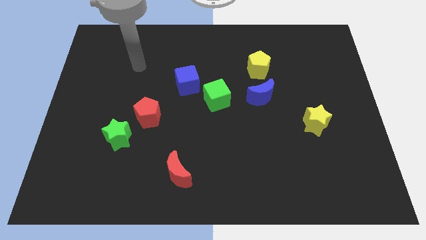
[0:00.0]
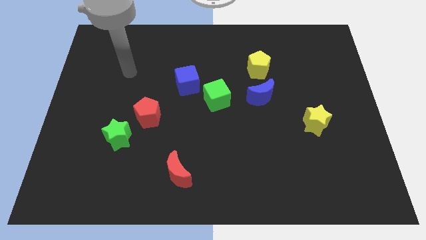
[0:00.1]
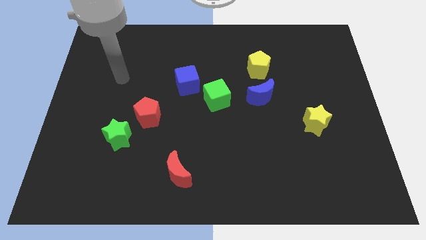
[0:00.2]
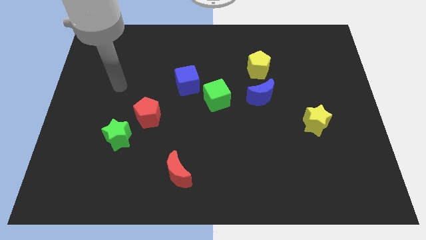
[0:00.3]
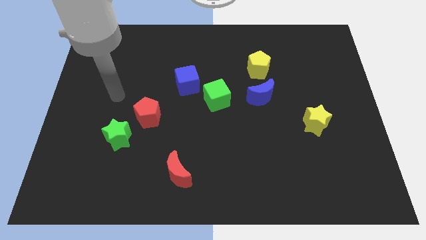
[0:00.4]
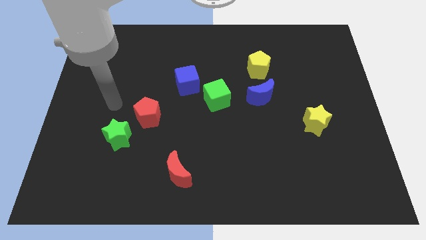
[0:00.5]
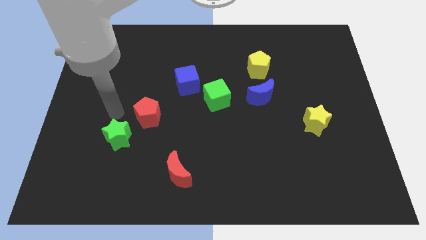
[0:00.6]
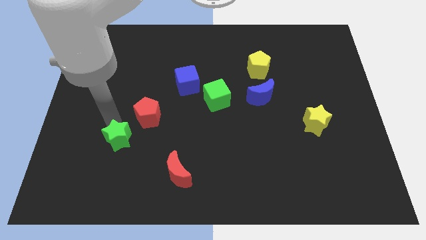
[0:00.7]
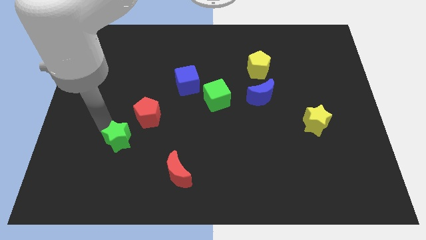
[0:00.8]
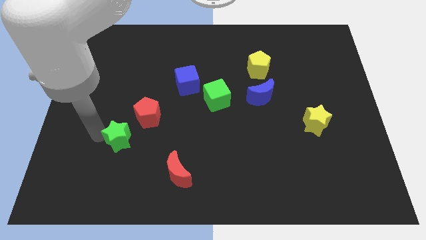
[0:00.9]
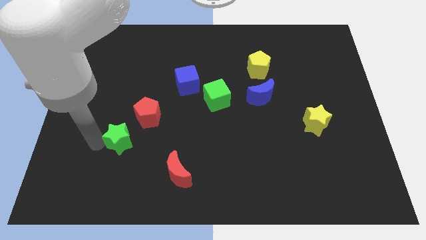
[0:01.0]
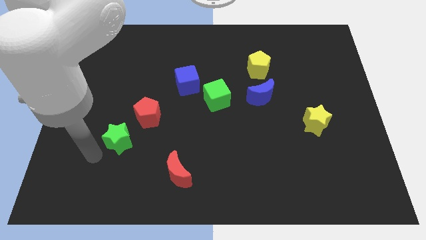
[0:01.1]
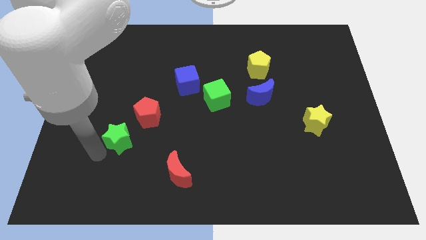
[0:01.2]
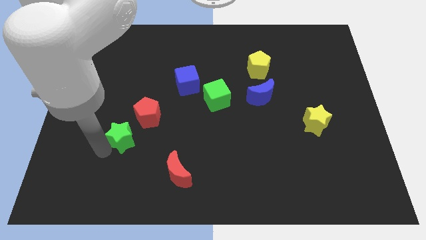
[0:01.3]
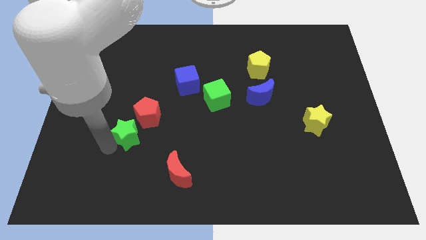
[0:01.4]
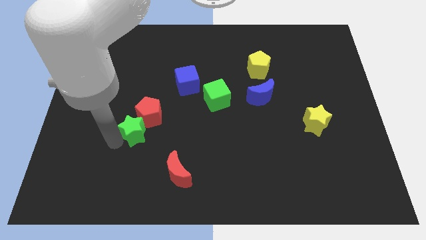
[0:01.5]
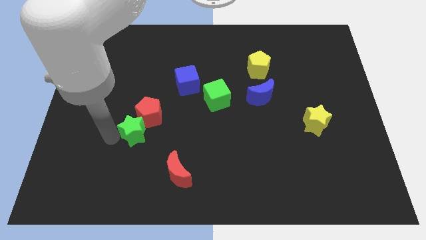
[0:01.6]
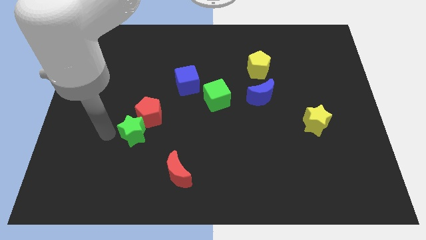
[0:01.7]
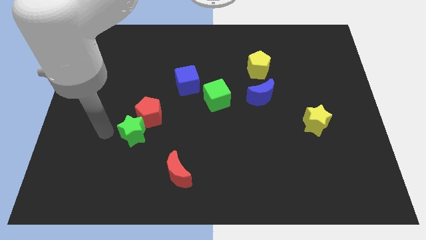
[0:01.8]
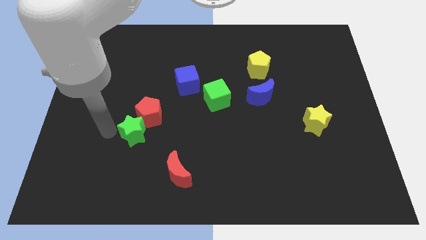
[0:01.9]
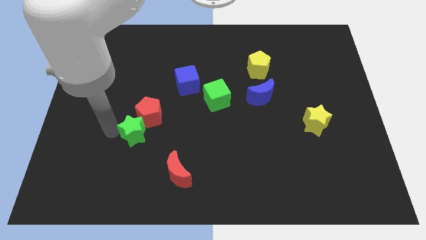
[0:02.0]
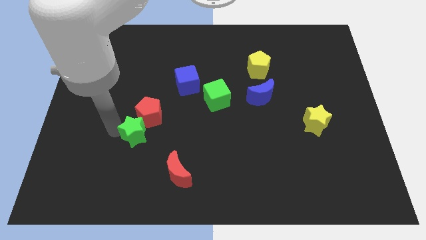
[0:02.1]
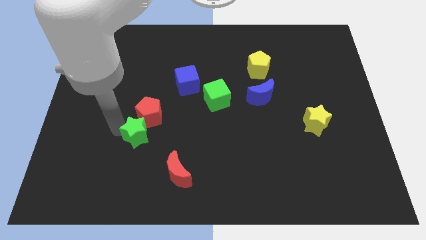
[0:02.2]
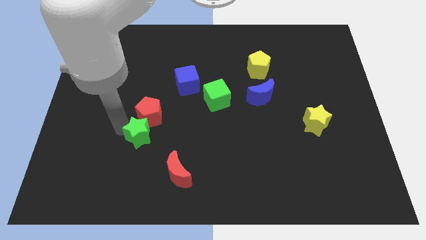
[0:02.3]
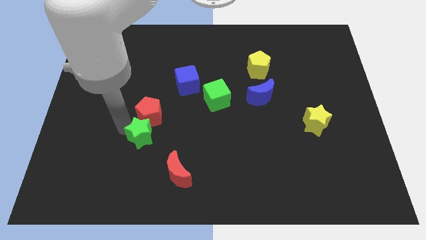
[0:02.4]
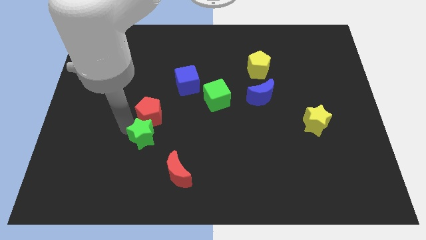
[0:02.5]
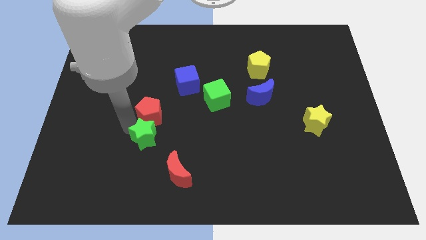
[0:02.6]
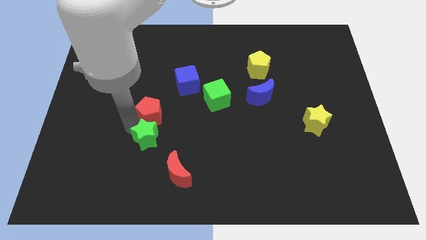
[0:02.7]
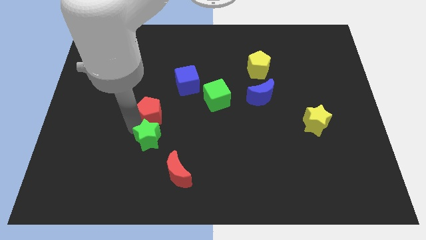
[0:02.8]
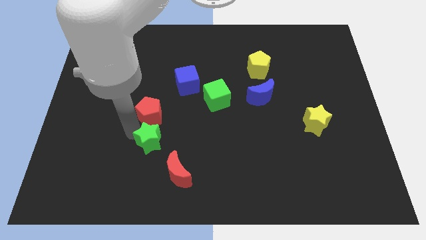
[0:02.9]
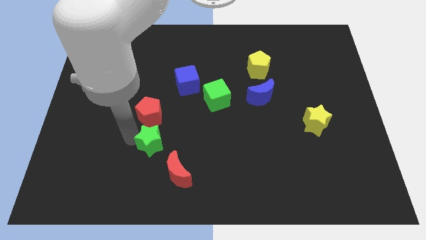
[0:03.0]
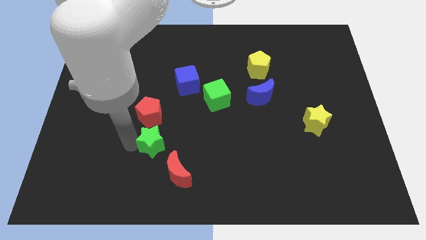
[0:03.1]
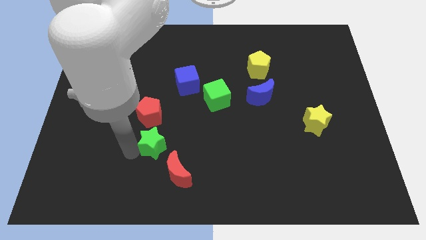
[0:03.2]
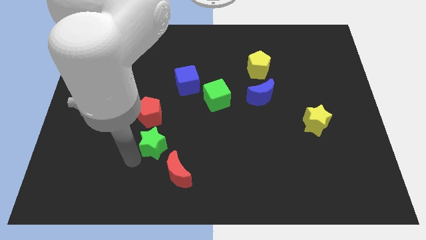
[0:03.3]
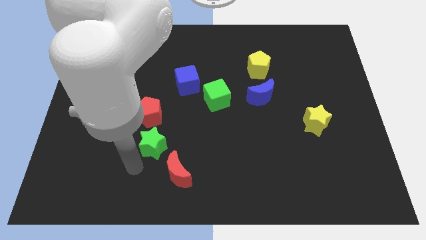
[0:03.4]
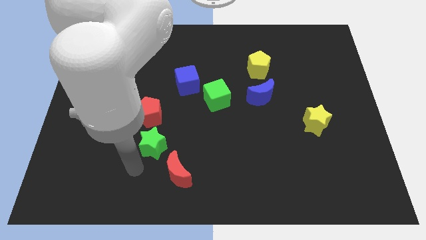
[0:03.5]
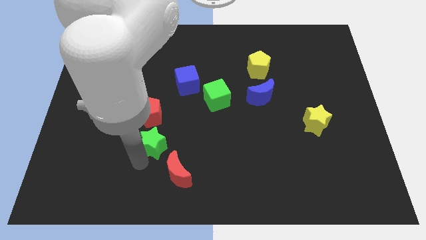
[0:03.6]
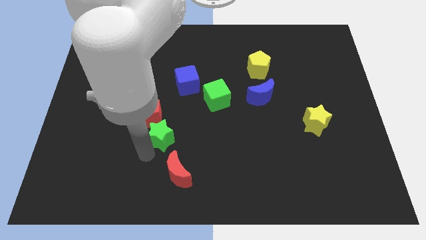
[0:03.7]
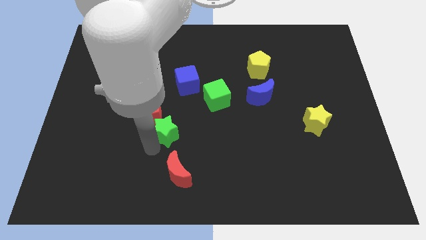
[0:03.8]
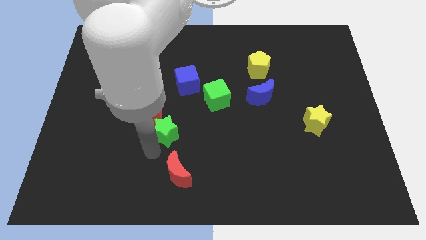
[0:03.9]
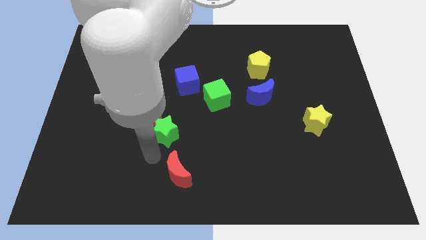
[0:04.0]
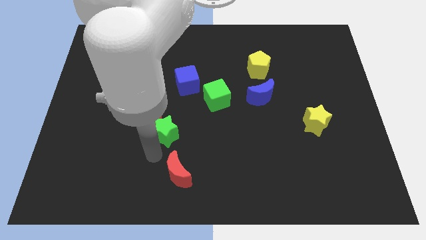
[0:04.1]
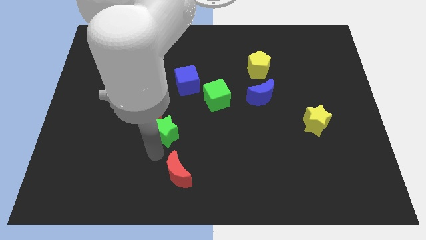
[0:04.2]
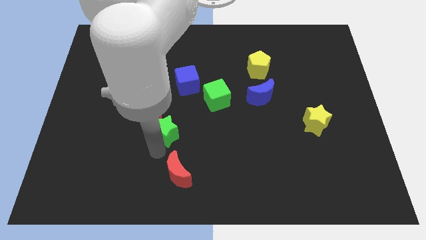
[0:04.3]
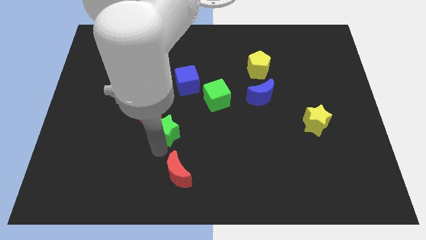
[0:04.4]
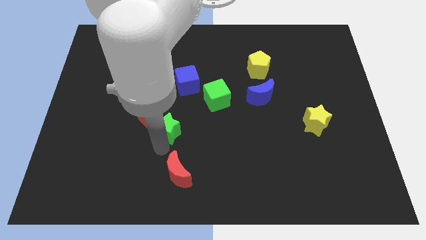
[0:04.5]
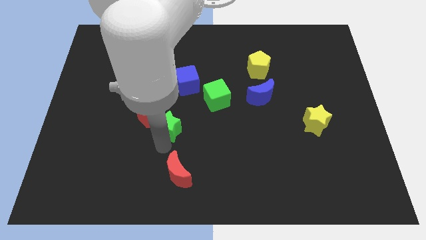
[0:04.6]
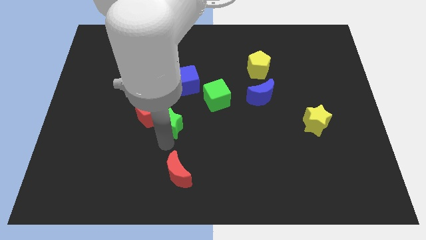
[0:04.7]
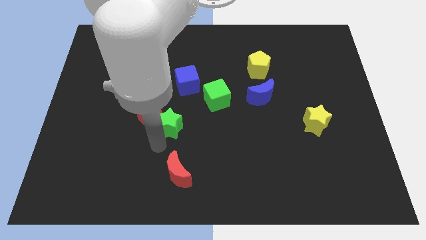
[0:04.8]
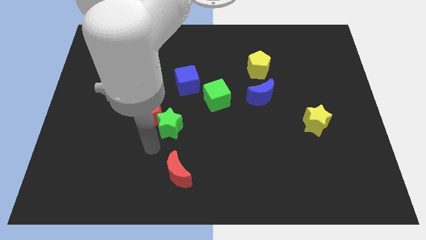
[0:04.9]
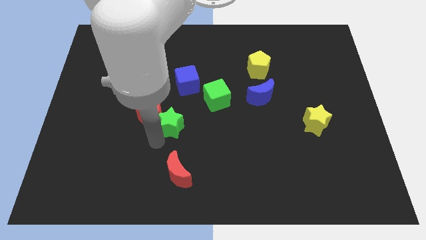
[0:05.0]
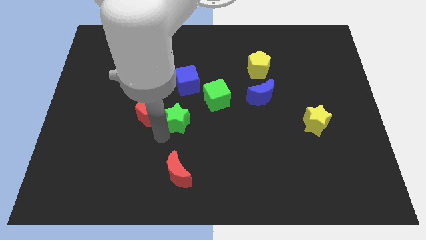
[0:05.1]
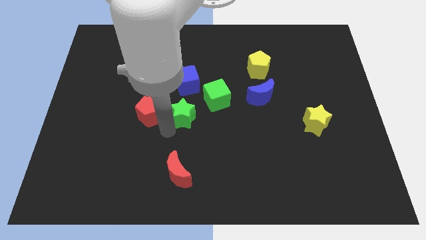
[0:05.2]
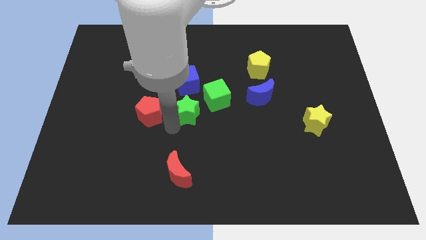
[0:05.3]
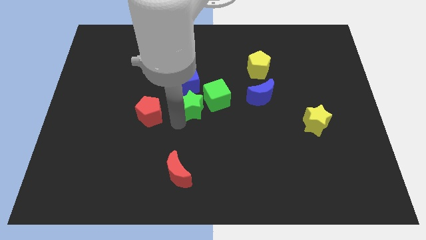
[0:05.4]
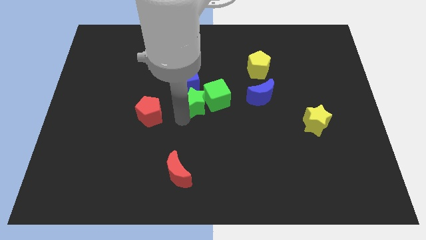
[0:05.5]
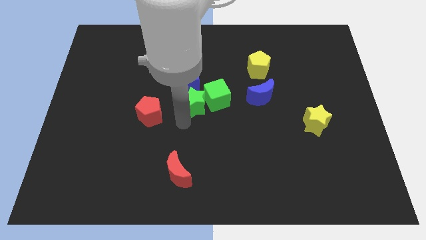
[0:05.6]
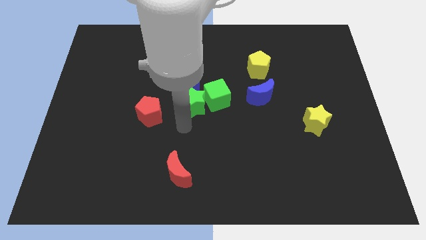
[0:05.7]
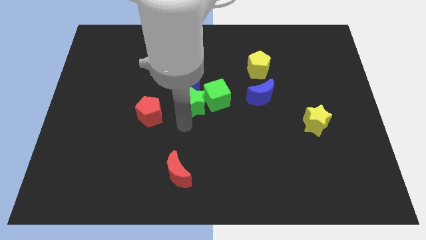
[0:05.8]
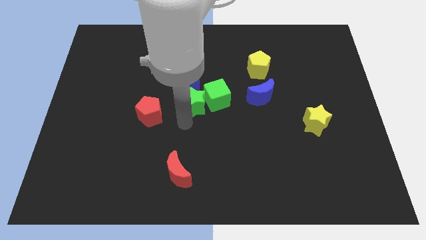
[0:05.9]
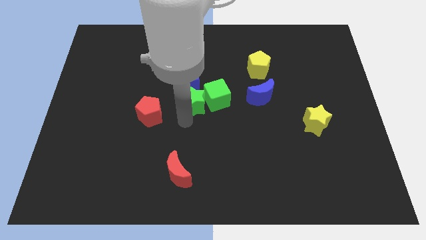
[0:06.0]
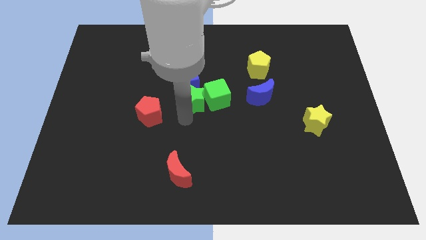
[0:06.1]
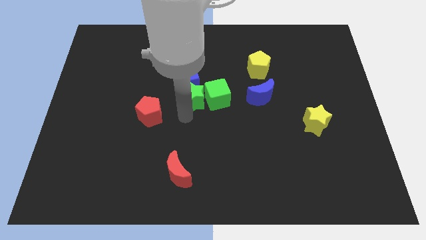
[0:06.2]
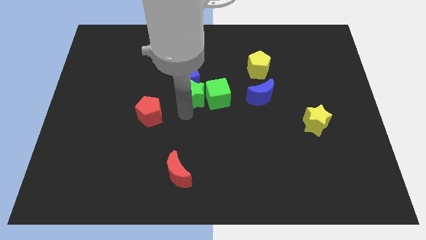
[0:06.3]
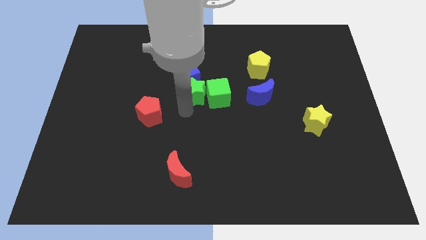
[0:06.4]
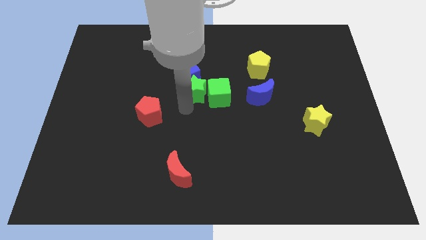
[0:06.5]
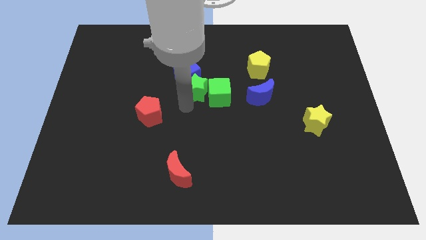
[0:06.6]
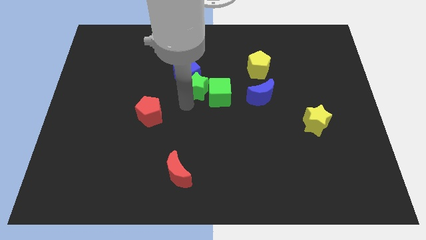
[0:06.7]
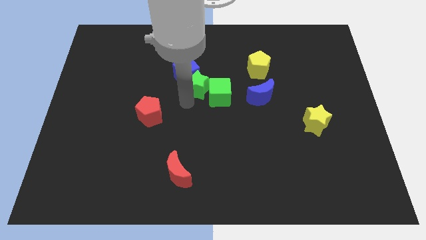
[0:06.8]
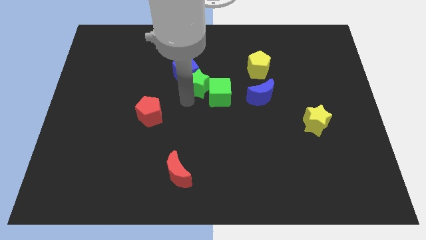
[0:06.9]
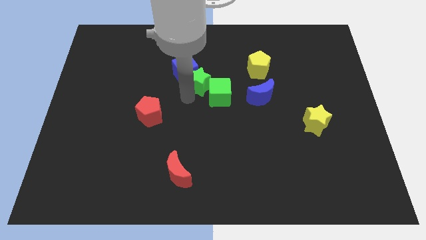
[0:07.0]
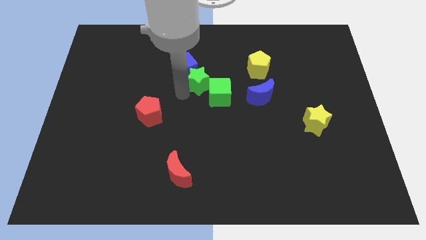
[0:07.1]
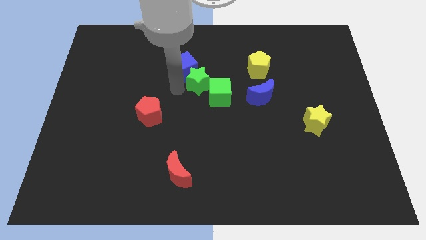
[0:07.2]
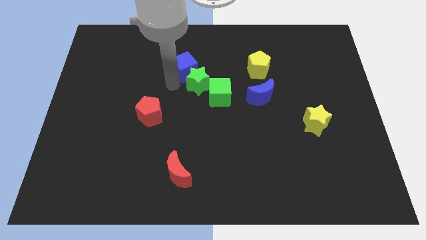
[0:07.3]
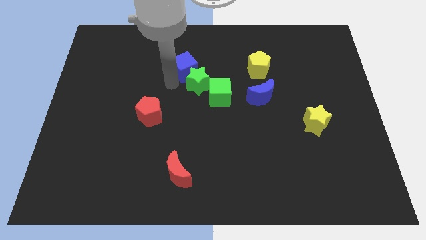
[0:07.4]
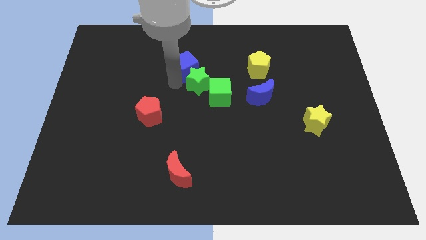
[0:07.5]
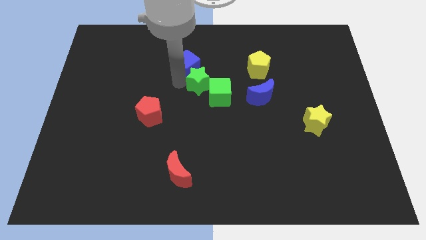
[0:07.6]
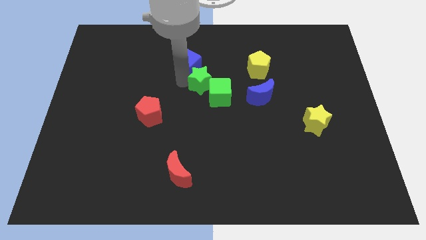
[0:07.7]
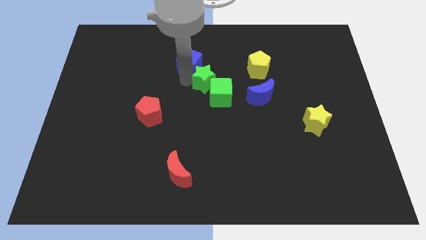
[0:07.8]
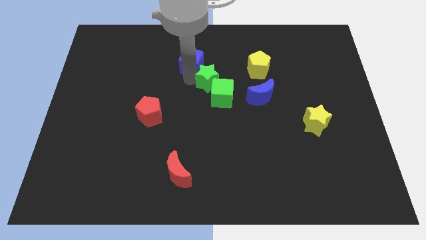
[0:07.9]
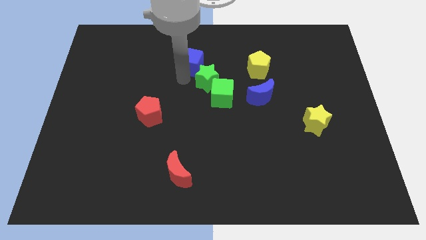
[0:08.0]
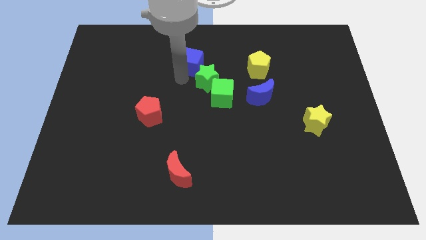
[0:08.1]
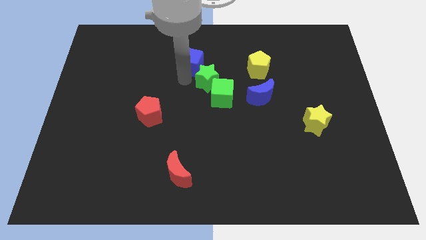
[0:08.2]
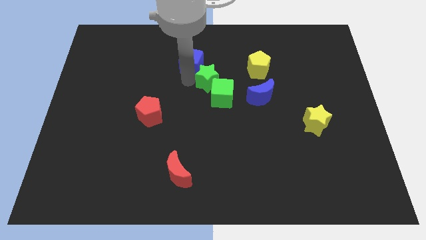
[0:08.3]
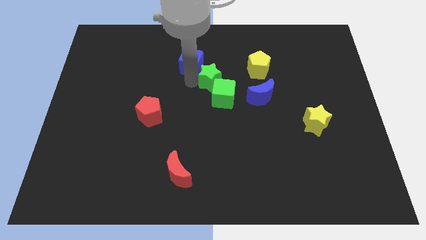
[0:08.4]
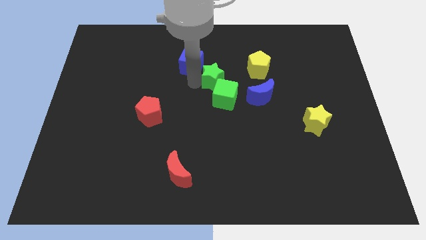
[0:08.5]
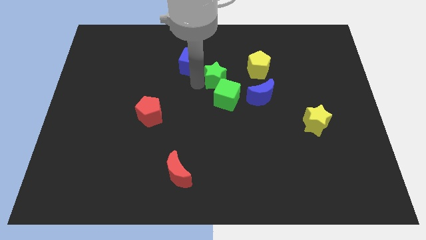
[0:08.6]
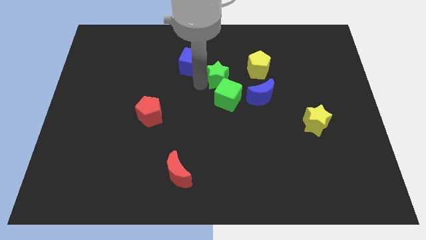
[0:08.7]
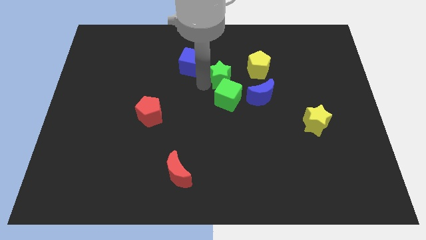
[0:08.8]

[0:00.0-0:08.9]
put the green star to the bottom left side of the yellow pentagon
